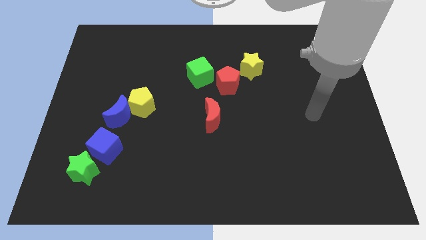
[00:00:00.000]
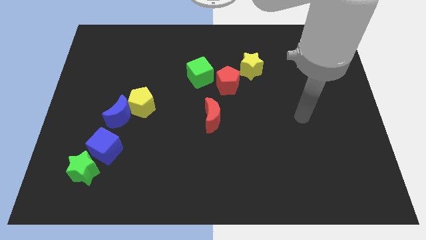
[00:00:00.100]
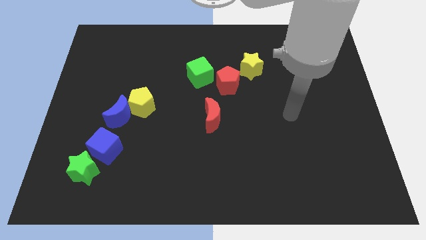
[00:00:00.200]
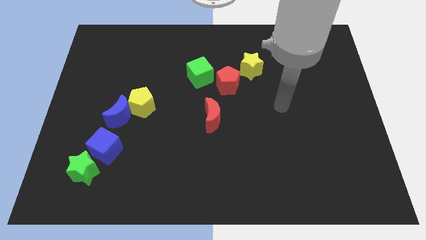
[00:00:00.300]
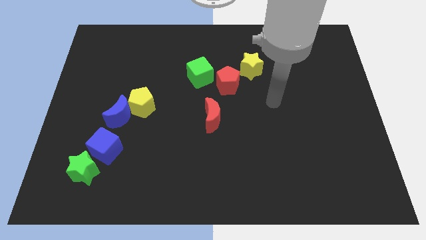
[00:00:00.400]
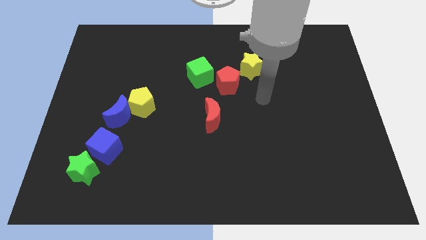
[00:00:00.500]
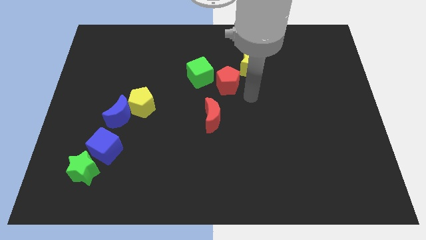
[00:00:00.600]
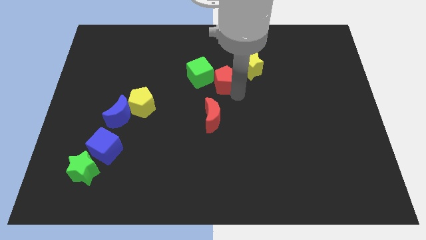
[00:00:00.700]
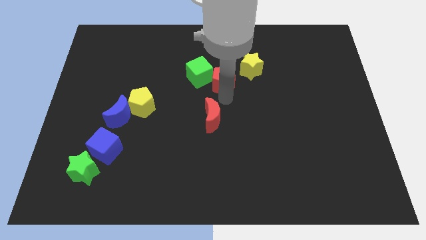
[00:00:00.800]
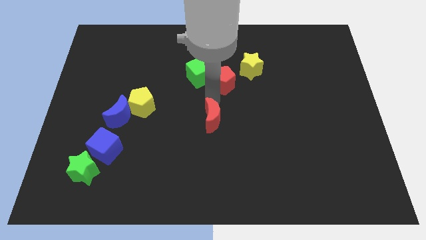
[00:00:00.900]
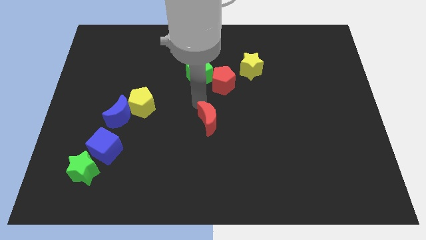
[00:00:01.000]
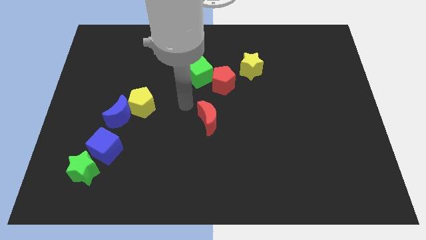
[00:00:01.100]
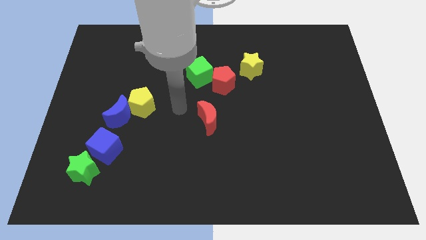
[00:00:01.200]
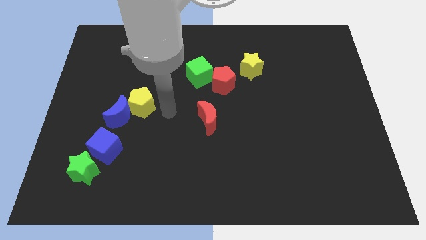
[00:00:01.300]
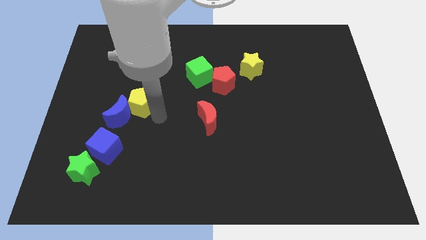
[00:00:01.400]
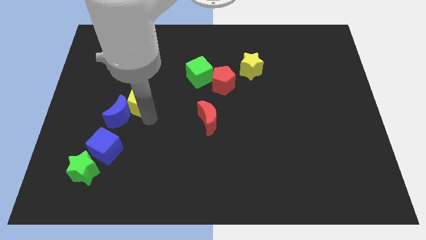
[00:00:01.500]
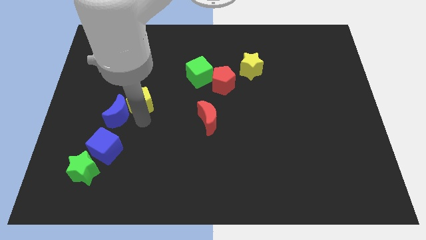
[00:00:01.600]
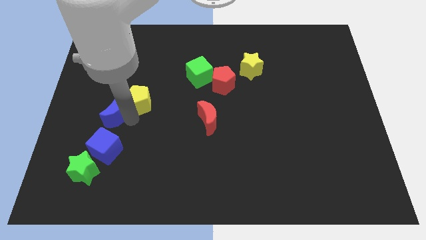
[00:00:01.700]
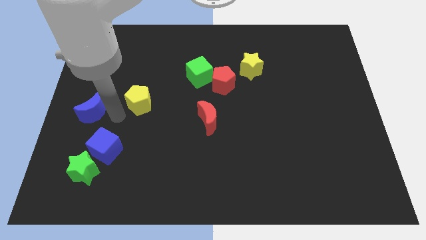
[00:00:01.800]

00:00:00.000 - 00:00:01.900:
pull the yellow pentagon apart from the blue moon

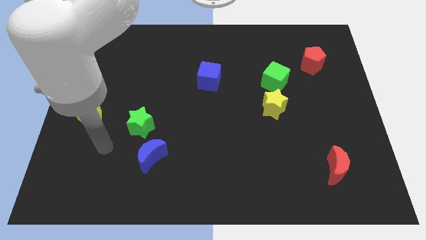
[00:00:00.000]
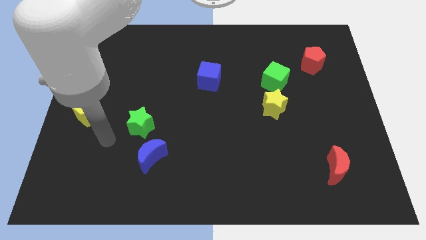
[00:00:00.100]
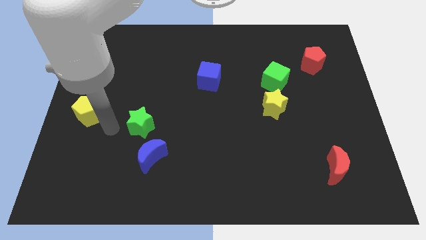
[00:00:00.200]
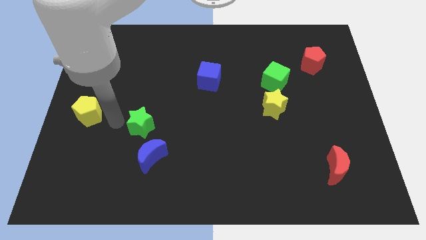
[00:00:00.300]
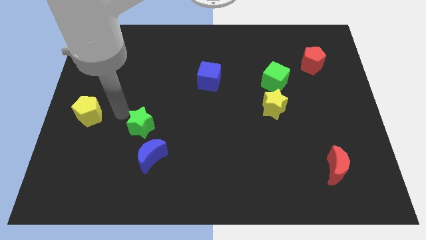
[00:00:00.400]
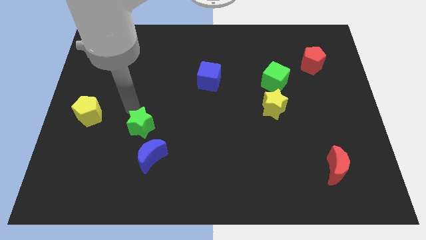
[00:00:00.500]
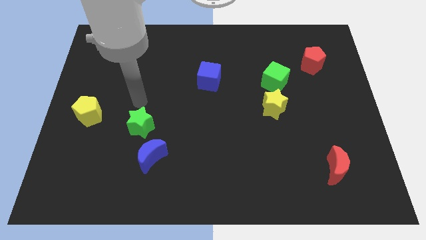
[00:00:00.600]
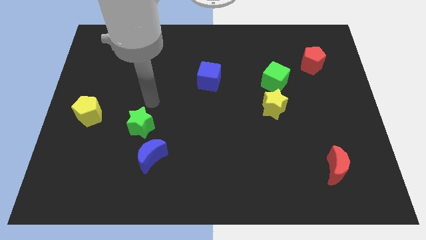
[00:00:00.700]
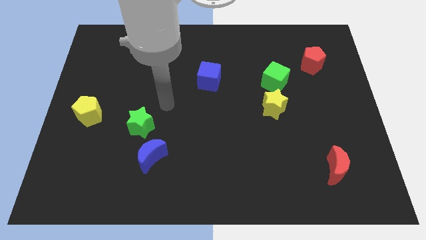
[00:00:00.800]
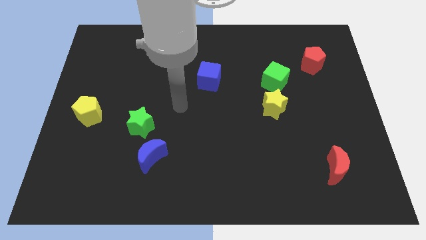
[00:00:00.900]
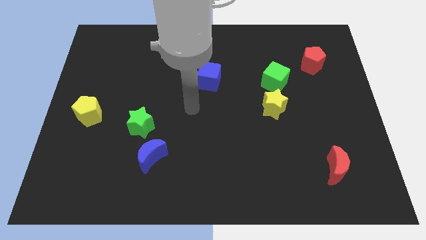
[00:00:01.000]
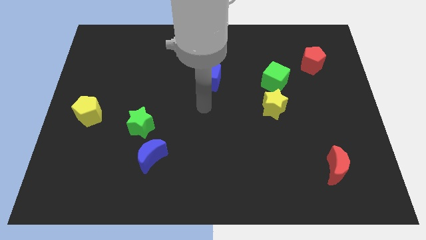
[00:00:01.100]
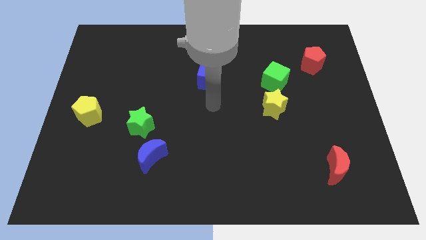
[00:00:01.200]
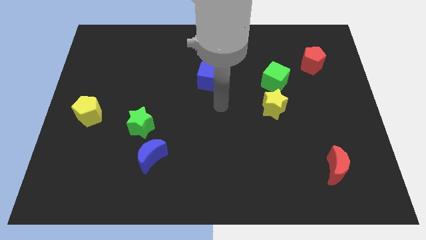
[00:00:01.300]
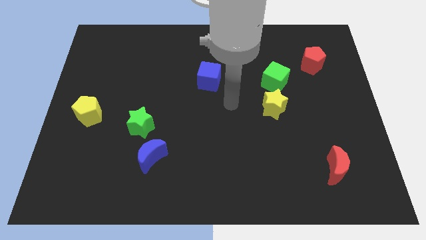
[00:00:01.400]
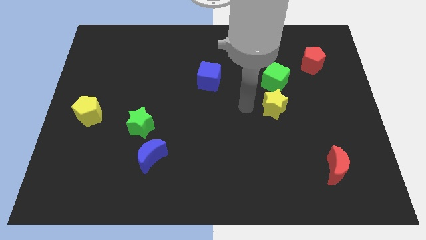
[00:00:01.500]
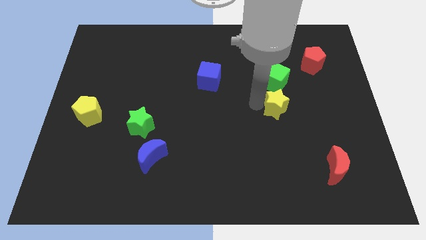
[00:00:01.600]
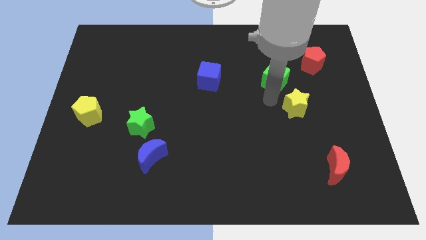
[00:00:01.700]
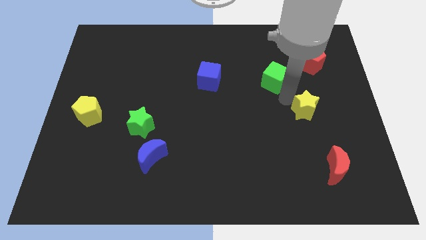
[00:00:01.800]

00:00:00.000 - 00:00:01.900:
move the green cube away from the yellow star

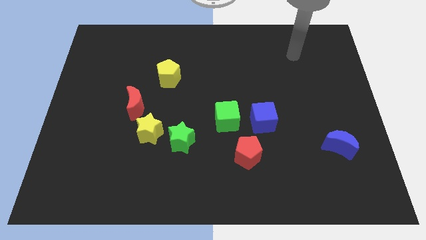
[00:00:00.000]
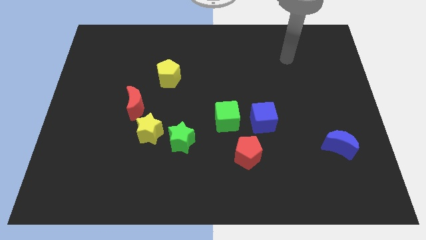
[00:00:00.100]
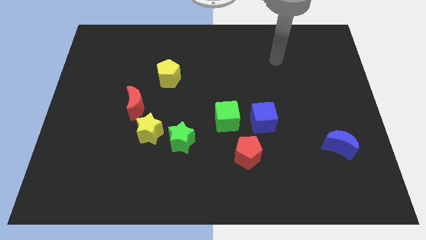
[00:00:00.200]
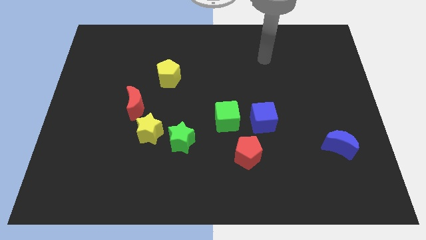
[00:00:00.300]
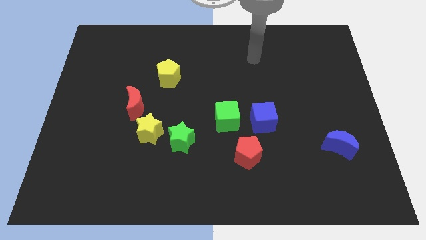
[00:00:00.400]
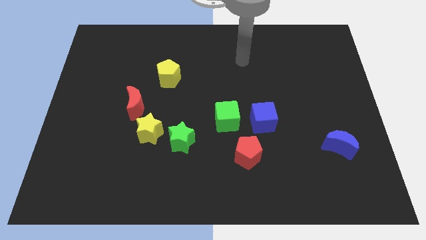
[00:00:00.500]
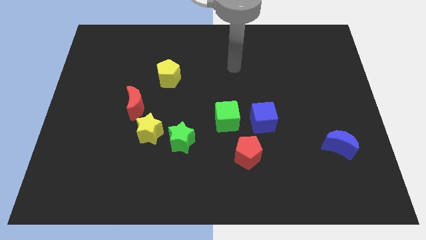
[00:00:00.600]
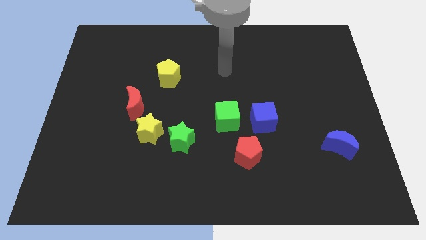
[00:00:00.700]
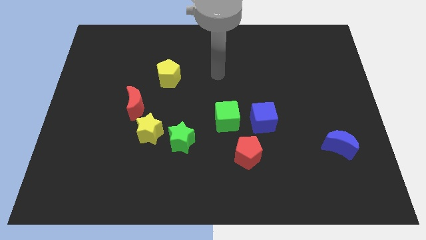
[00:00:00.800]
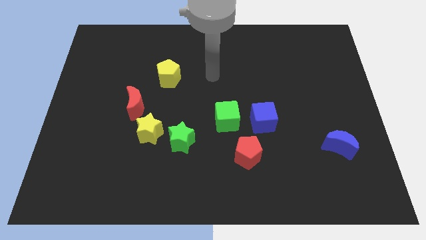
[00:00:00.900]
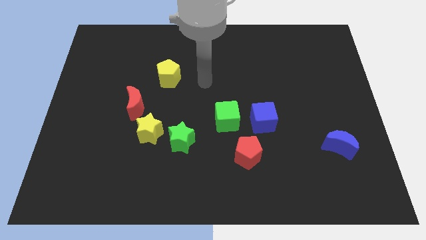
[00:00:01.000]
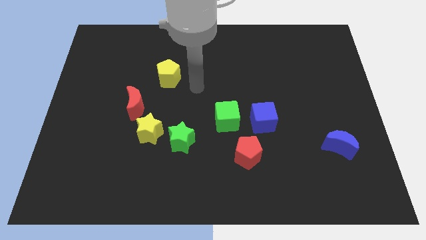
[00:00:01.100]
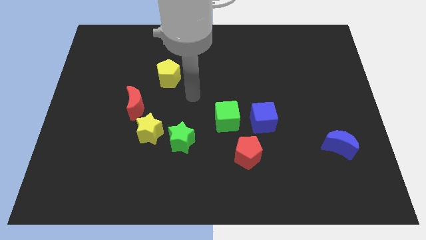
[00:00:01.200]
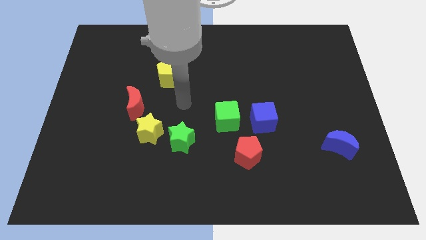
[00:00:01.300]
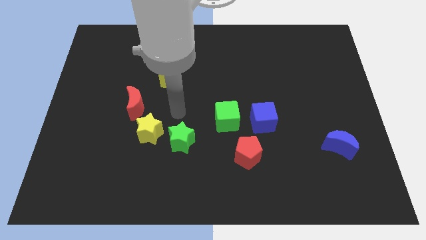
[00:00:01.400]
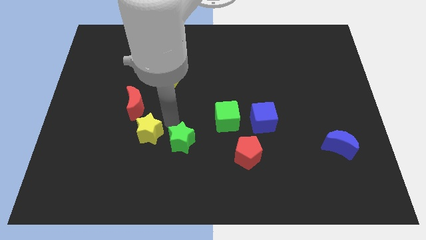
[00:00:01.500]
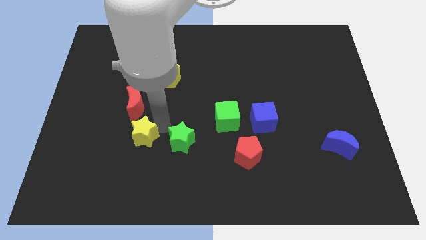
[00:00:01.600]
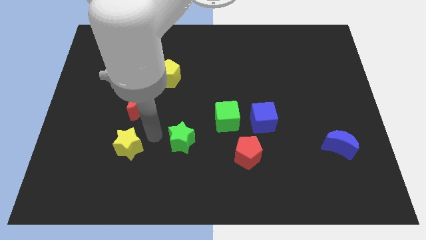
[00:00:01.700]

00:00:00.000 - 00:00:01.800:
move the green star away from the yellow star

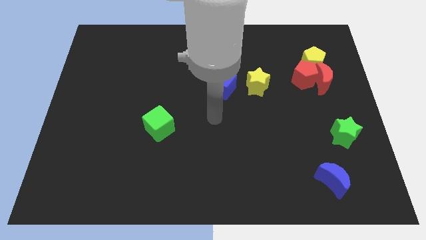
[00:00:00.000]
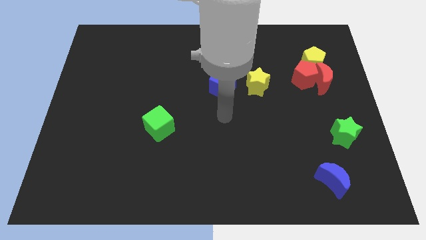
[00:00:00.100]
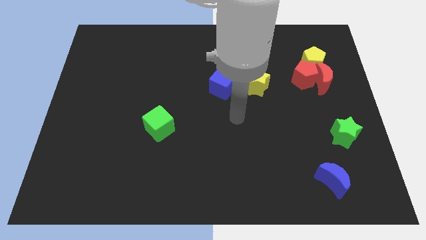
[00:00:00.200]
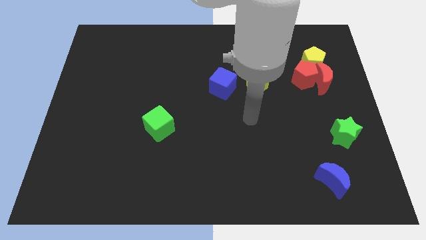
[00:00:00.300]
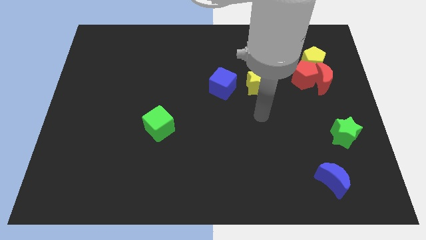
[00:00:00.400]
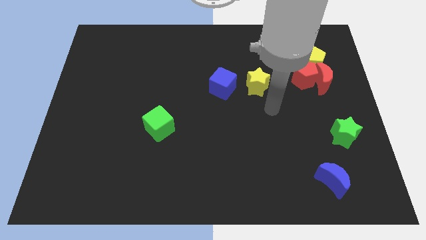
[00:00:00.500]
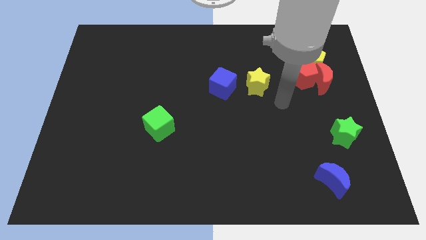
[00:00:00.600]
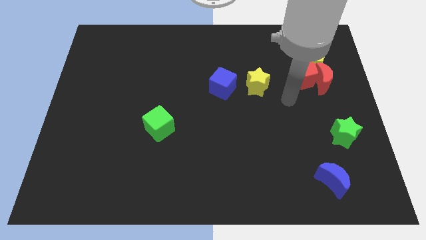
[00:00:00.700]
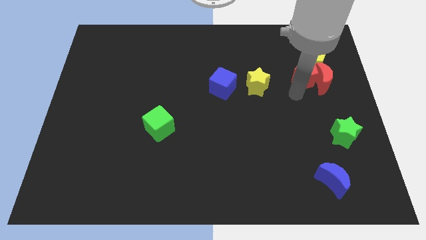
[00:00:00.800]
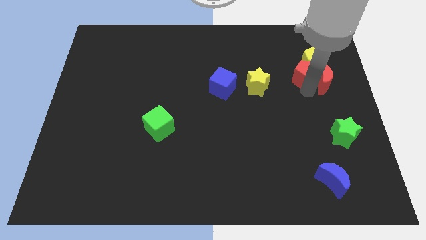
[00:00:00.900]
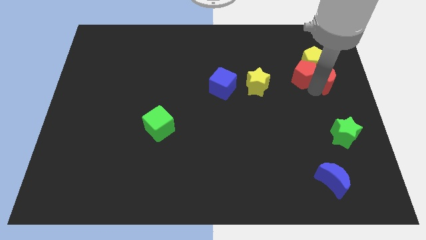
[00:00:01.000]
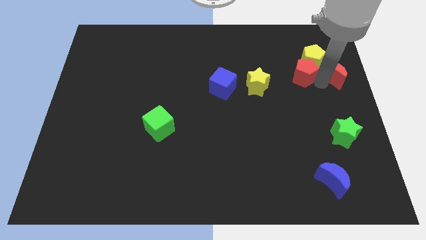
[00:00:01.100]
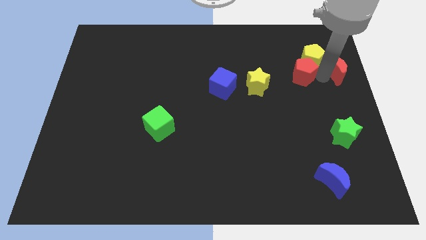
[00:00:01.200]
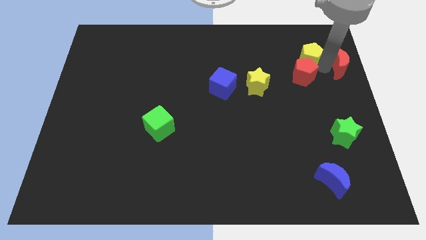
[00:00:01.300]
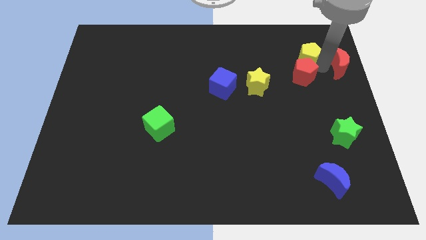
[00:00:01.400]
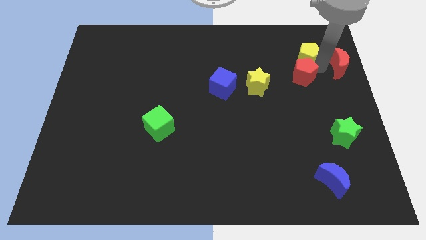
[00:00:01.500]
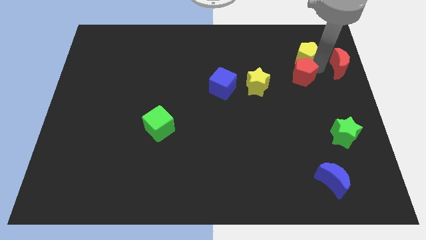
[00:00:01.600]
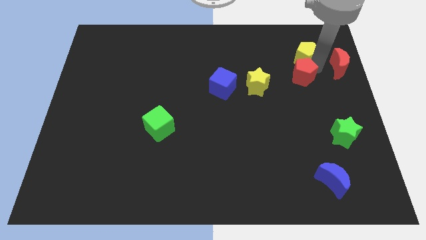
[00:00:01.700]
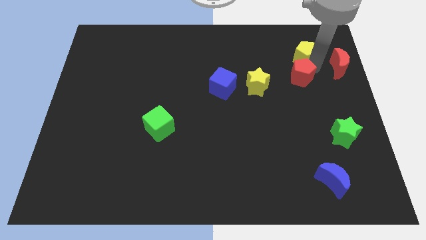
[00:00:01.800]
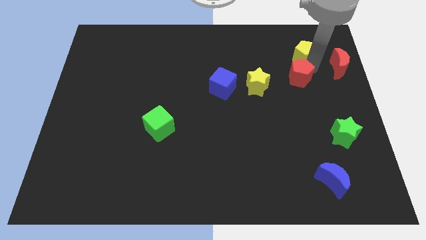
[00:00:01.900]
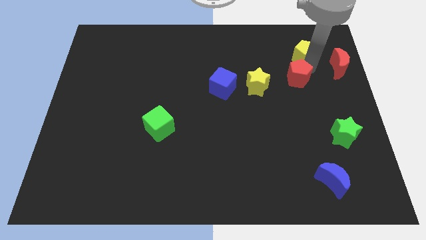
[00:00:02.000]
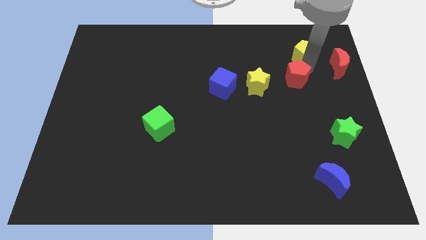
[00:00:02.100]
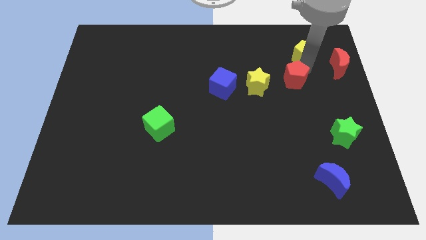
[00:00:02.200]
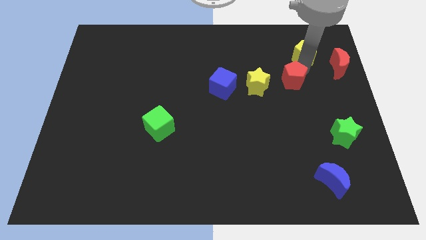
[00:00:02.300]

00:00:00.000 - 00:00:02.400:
move the red pentagon away from the red moon and yellow pentagon

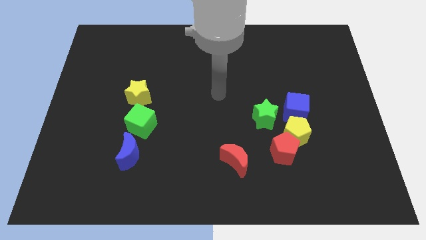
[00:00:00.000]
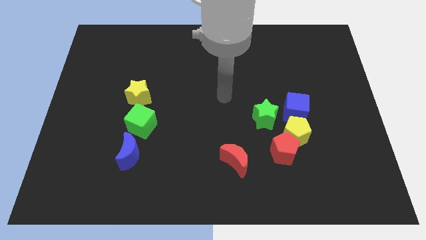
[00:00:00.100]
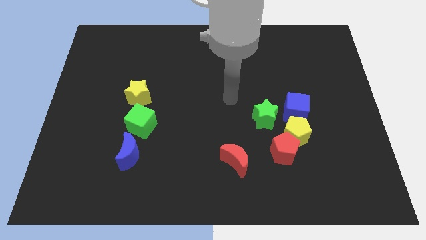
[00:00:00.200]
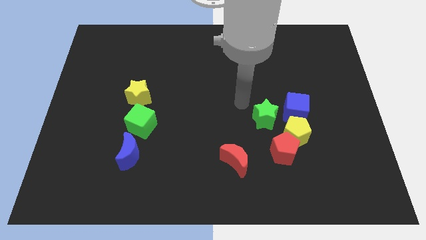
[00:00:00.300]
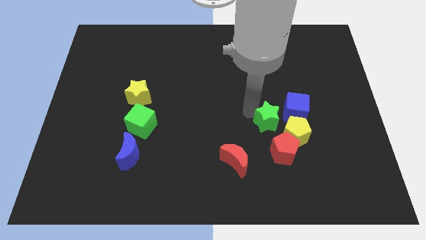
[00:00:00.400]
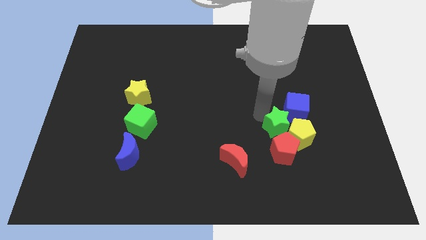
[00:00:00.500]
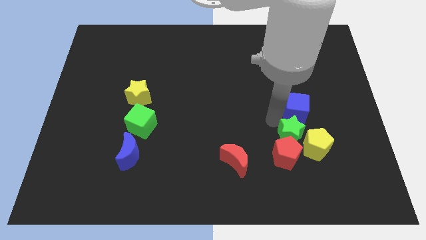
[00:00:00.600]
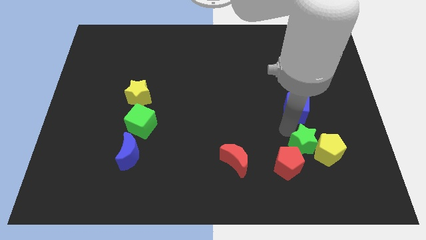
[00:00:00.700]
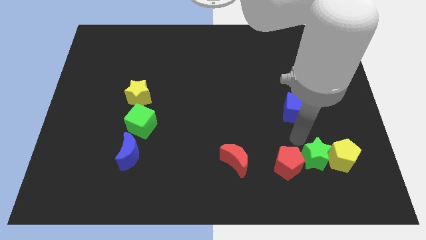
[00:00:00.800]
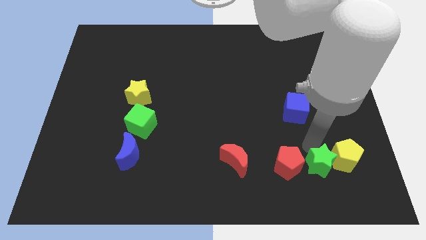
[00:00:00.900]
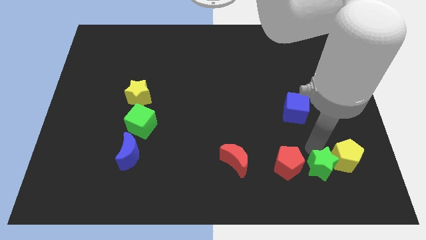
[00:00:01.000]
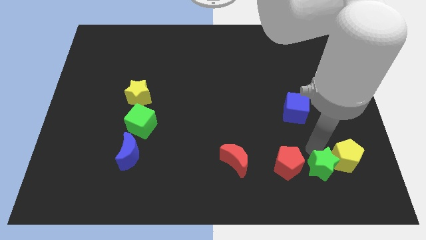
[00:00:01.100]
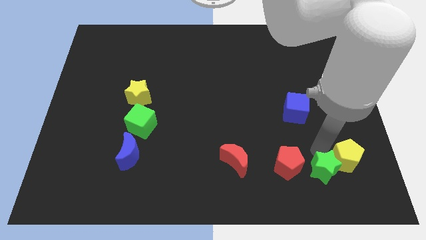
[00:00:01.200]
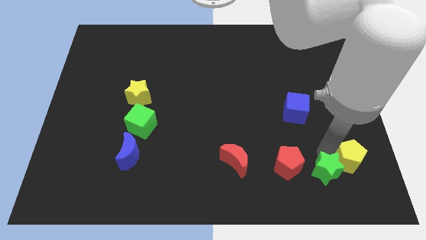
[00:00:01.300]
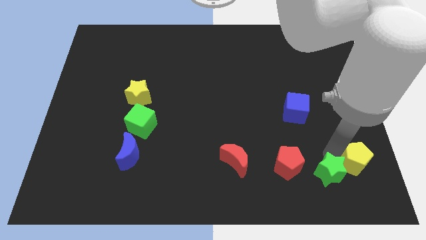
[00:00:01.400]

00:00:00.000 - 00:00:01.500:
separate the yellow pentagon from the group
